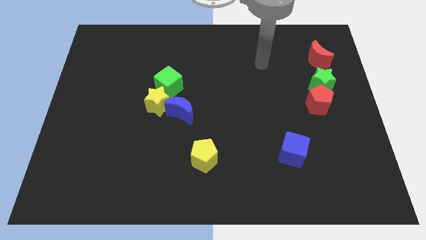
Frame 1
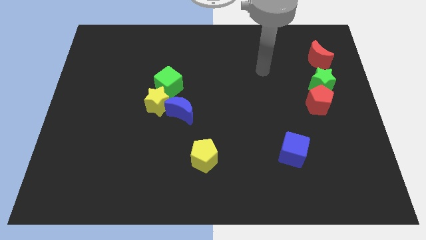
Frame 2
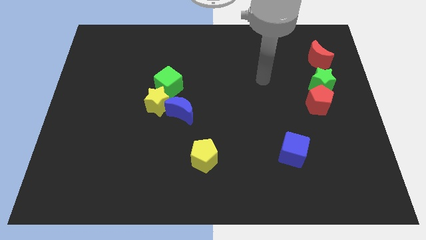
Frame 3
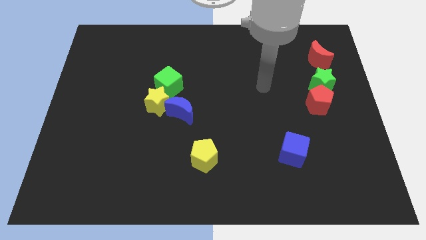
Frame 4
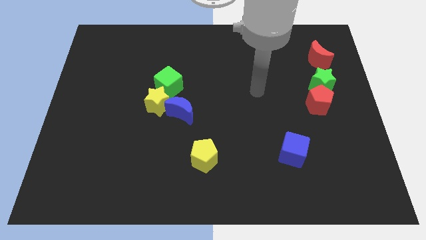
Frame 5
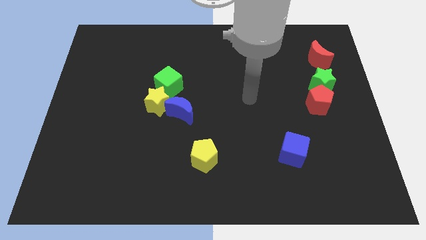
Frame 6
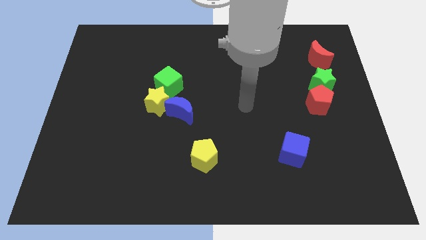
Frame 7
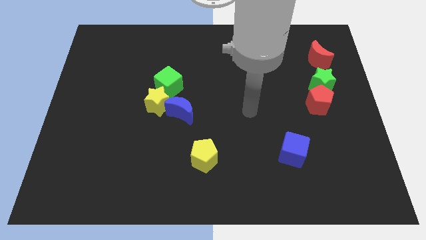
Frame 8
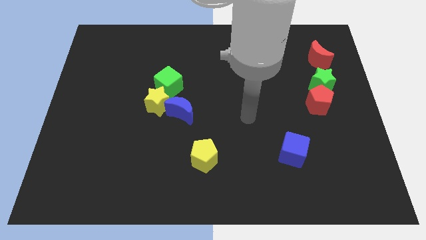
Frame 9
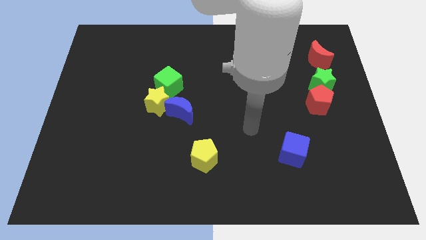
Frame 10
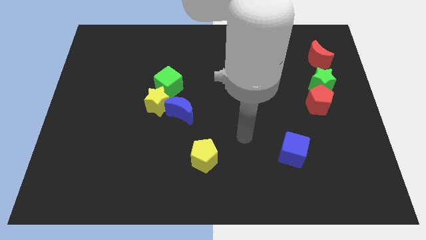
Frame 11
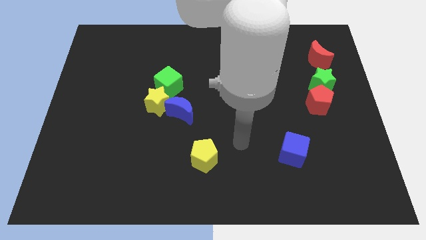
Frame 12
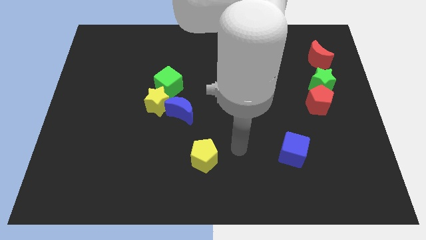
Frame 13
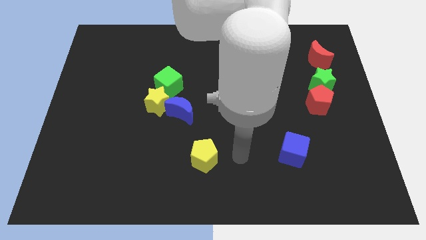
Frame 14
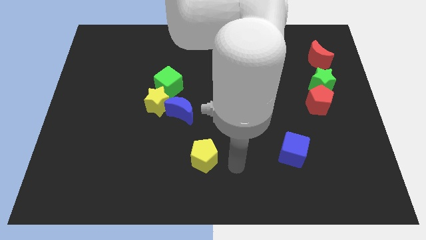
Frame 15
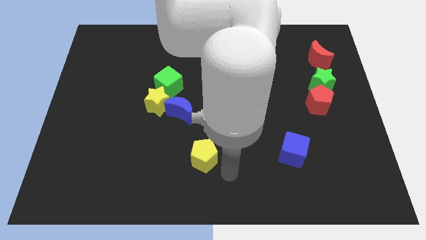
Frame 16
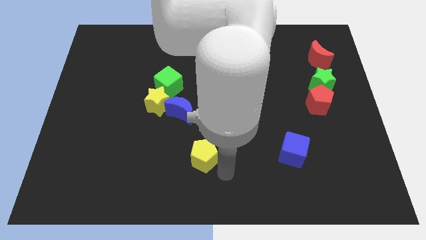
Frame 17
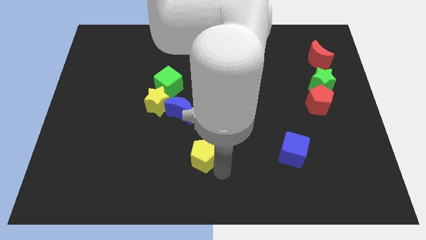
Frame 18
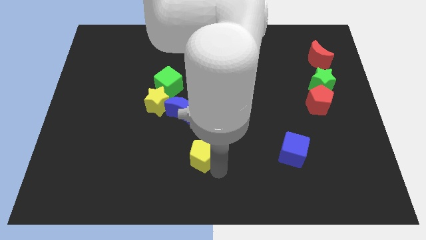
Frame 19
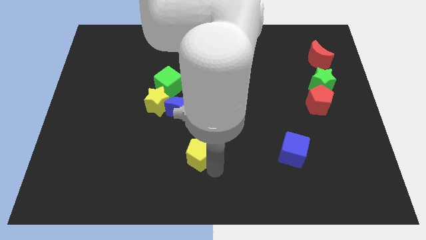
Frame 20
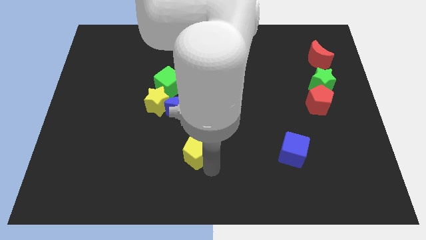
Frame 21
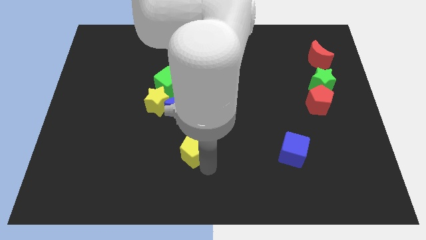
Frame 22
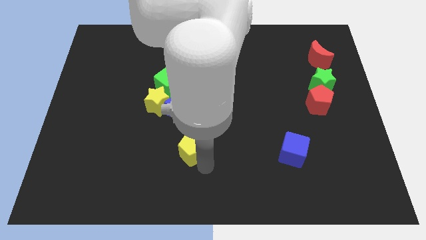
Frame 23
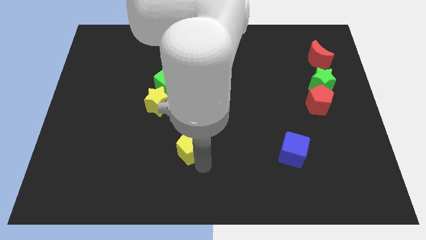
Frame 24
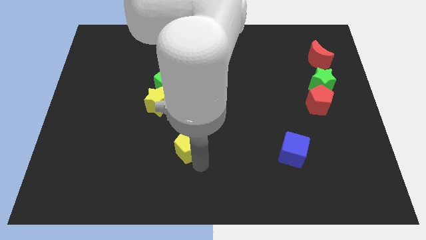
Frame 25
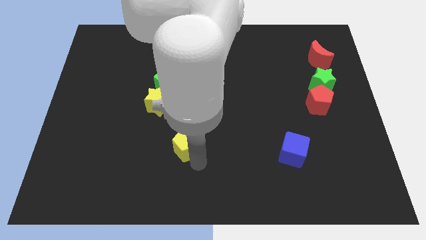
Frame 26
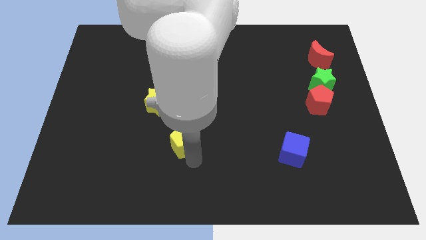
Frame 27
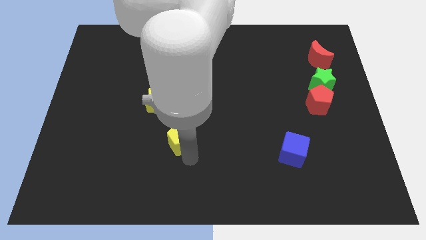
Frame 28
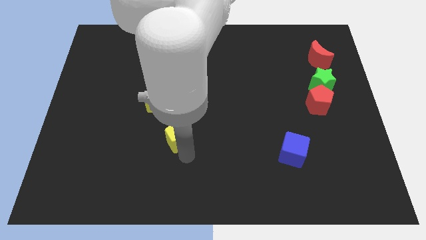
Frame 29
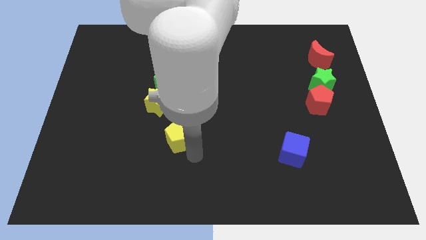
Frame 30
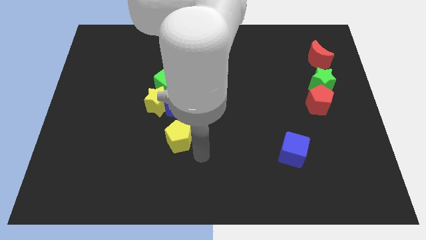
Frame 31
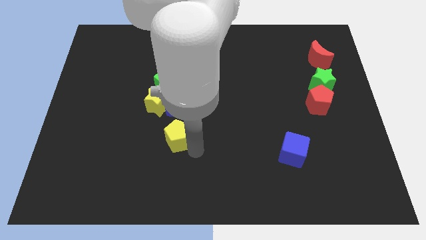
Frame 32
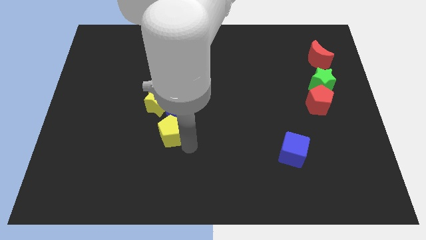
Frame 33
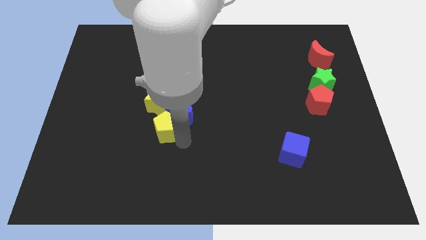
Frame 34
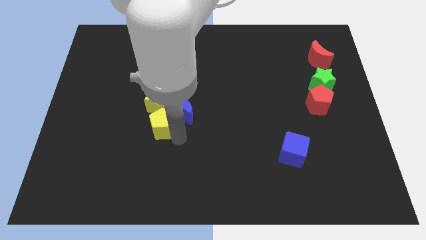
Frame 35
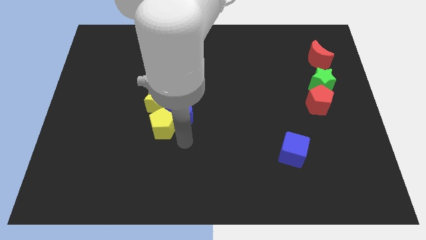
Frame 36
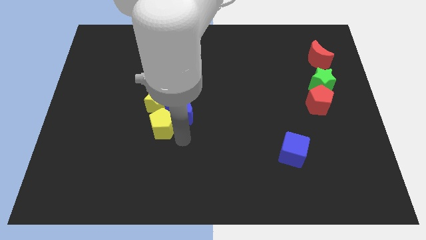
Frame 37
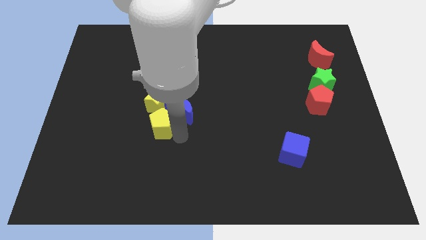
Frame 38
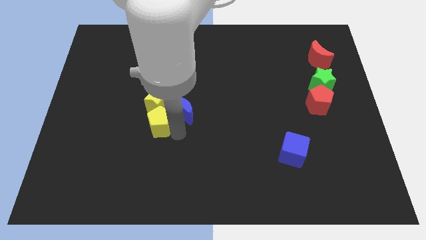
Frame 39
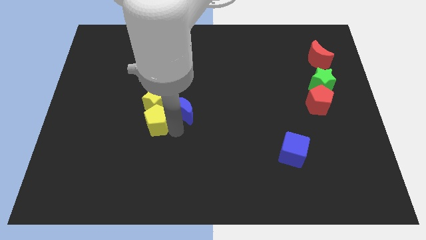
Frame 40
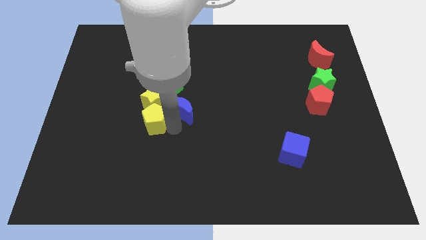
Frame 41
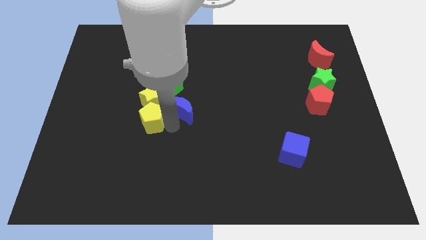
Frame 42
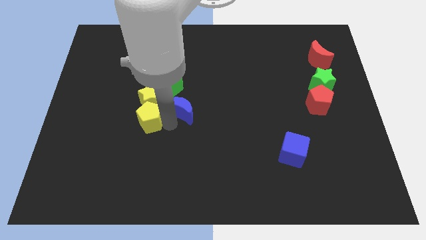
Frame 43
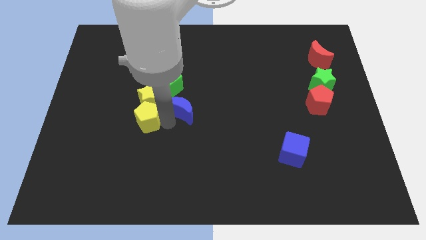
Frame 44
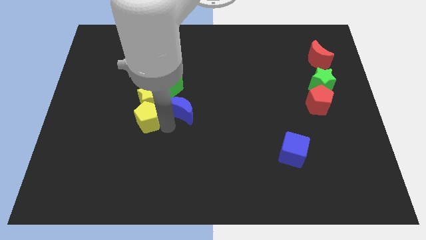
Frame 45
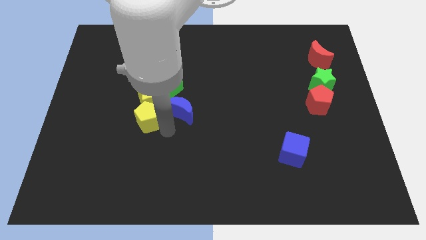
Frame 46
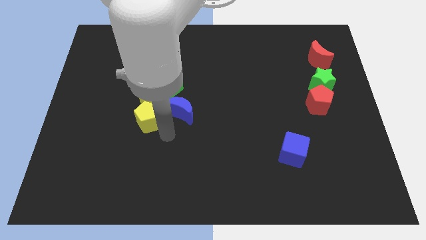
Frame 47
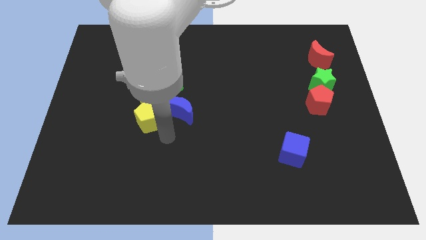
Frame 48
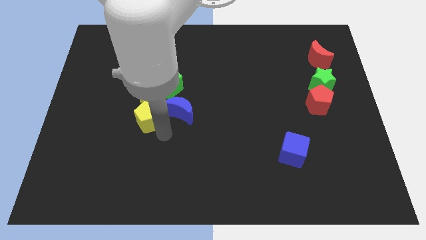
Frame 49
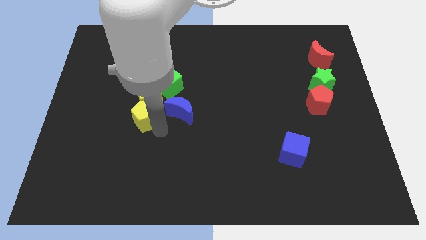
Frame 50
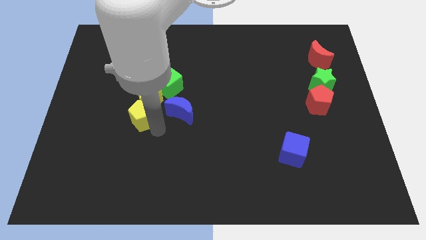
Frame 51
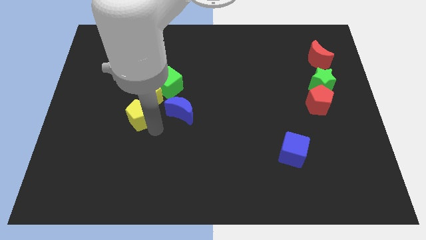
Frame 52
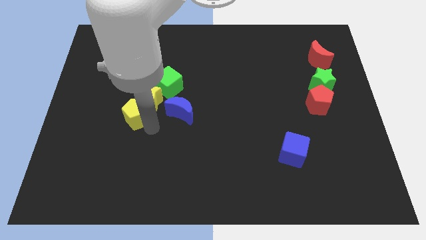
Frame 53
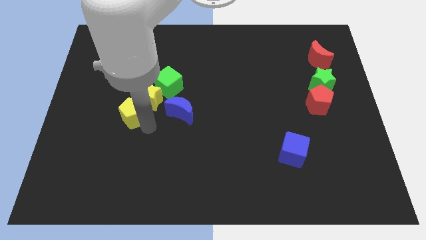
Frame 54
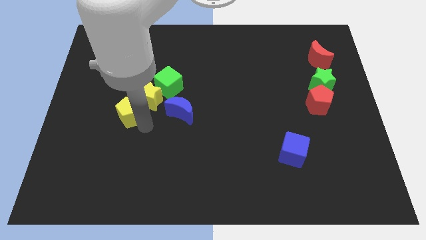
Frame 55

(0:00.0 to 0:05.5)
slide the yellow pentagon upwards and left

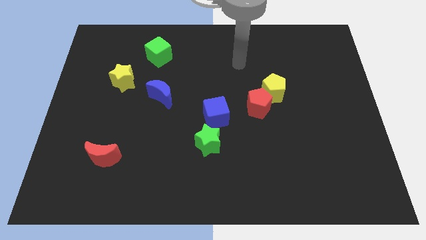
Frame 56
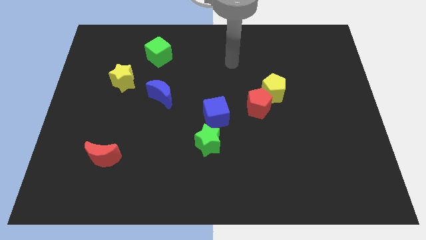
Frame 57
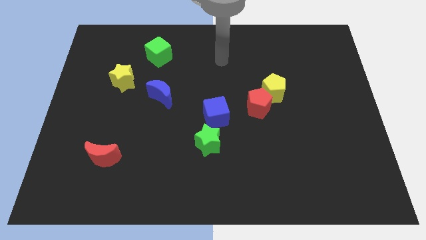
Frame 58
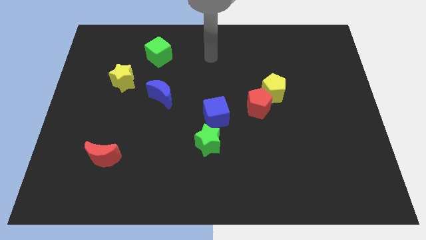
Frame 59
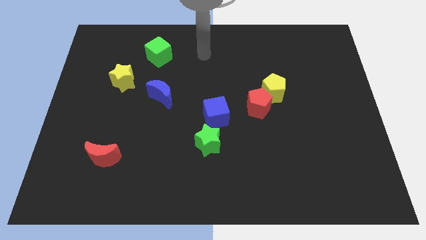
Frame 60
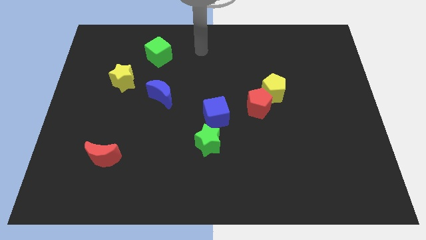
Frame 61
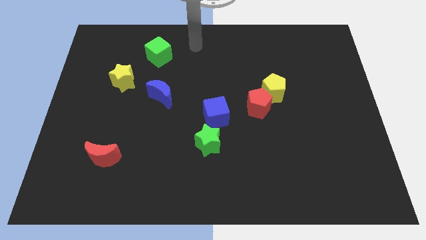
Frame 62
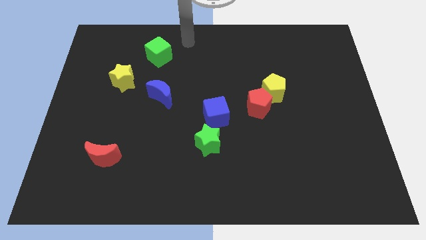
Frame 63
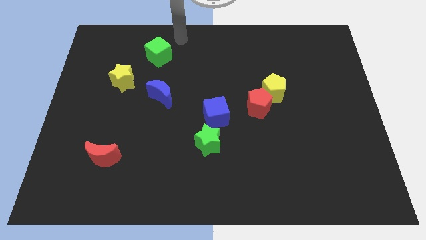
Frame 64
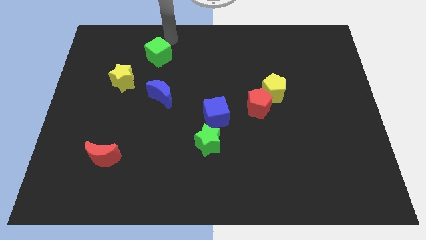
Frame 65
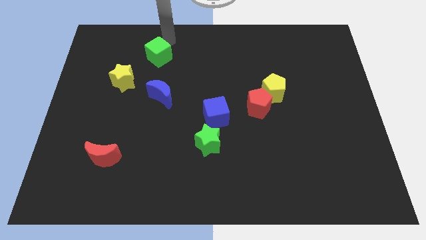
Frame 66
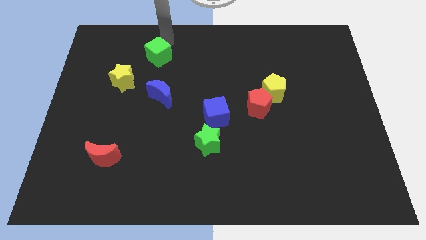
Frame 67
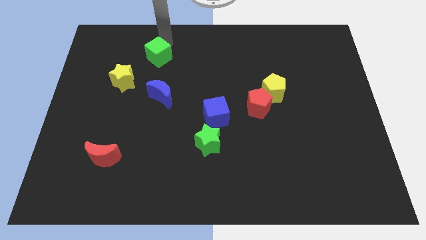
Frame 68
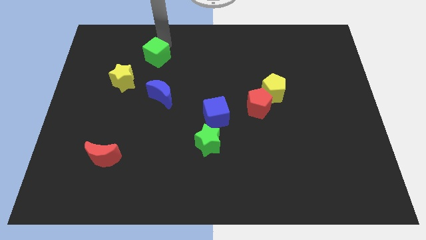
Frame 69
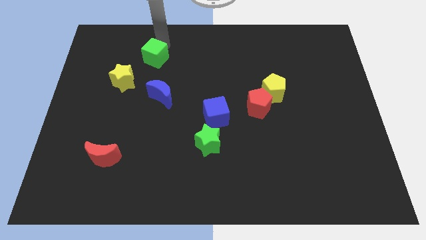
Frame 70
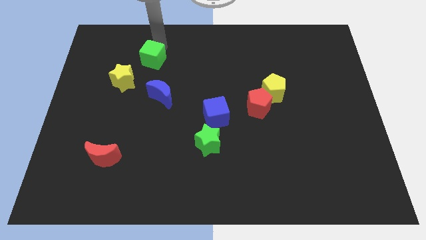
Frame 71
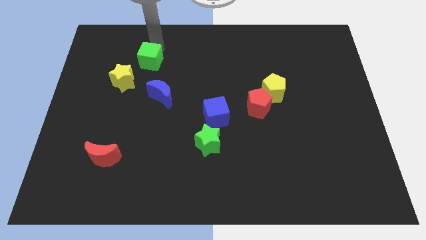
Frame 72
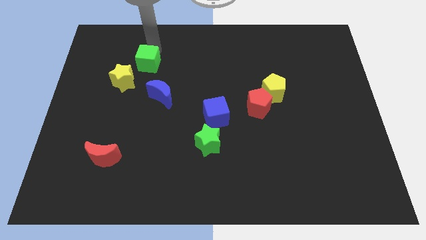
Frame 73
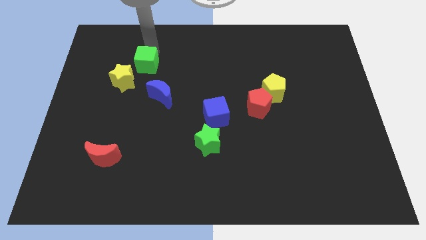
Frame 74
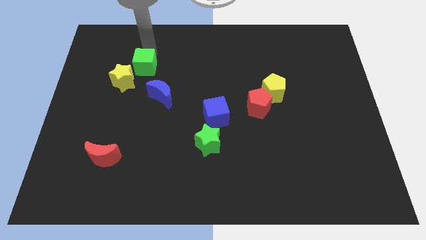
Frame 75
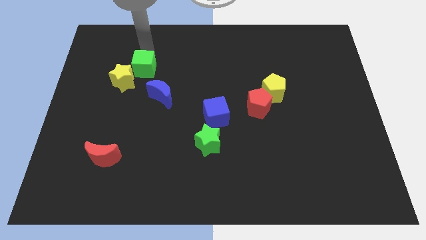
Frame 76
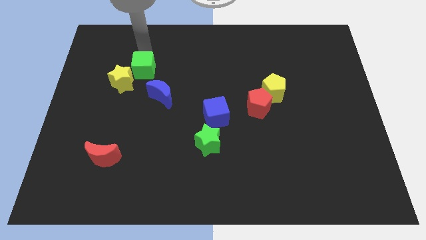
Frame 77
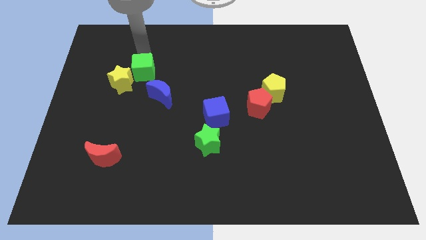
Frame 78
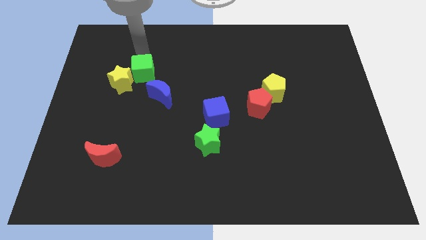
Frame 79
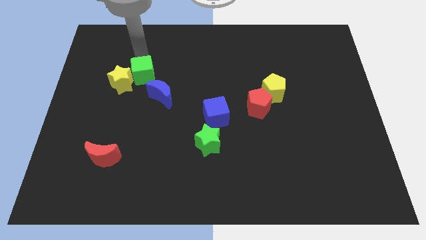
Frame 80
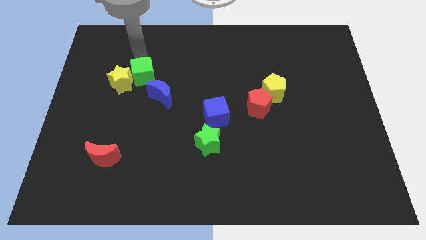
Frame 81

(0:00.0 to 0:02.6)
slightly slide the green cube down

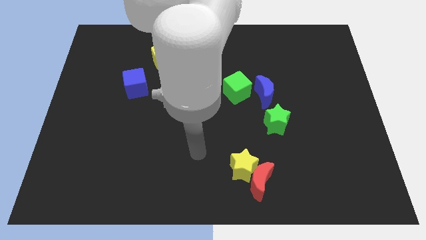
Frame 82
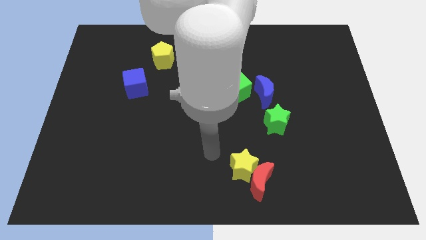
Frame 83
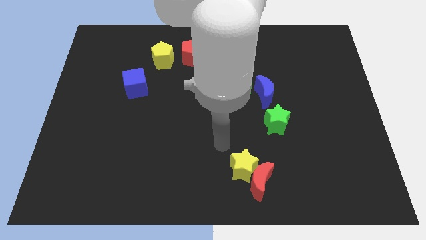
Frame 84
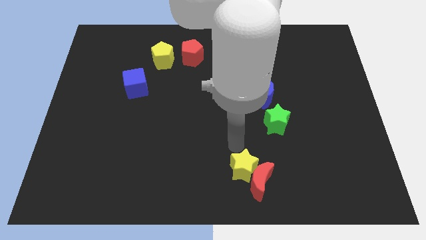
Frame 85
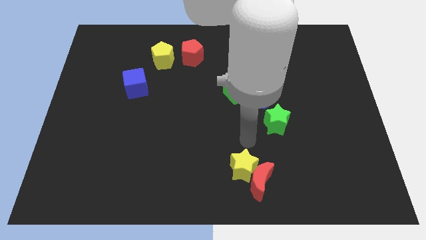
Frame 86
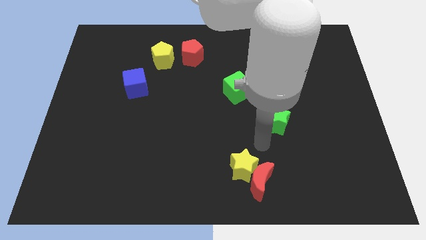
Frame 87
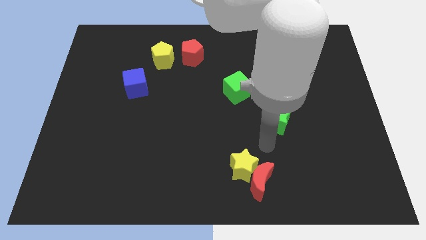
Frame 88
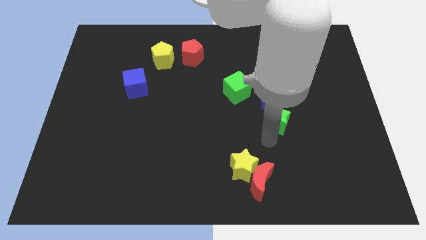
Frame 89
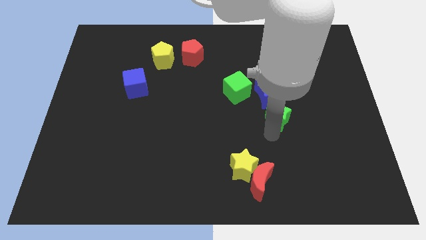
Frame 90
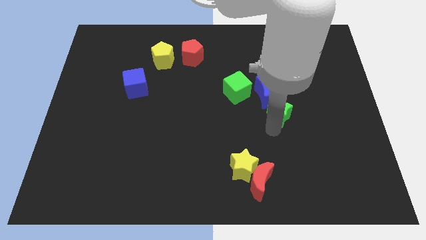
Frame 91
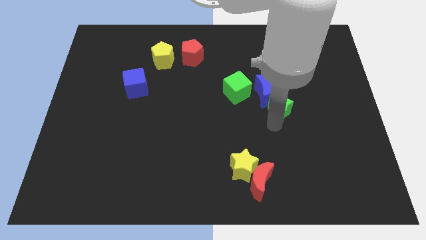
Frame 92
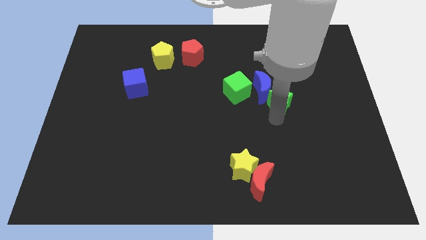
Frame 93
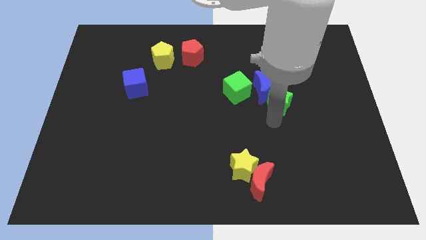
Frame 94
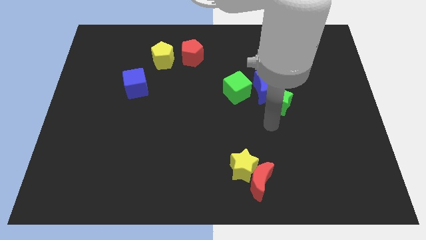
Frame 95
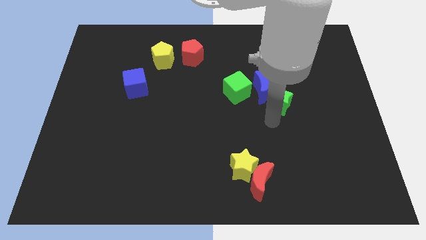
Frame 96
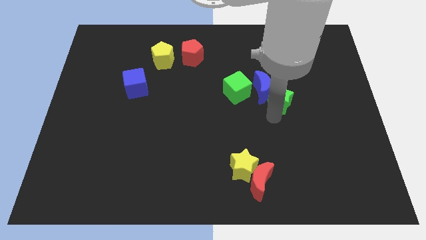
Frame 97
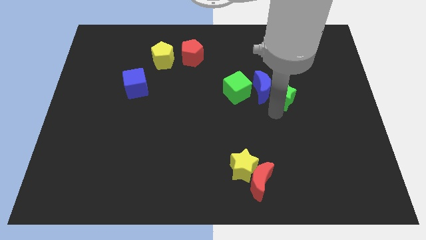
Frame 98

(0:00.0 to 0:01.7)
push the green star a little upwards
